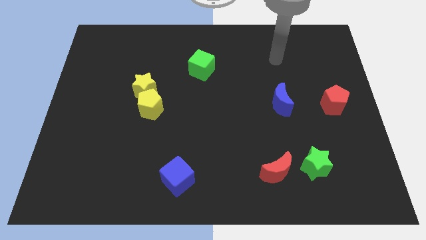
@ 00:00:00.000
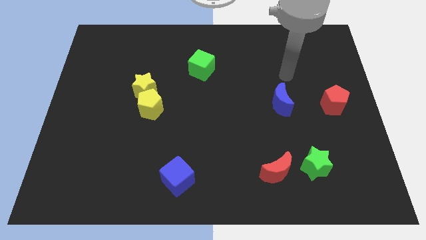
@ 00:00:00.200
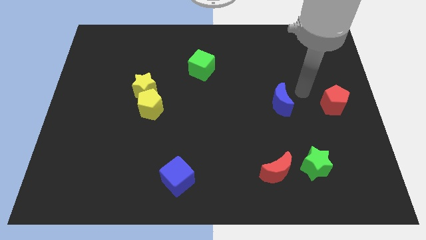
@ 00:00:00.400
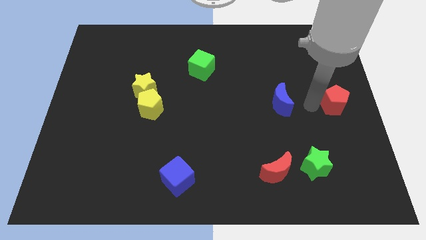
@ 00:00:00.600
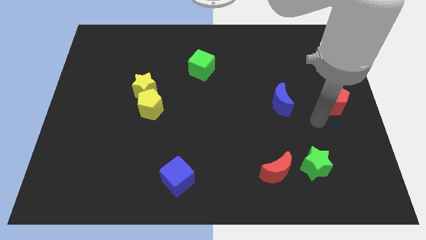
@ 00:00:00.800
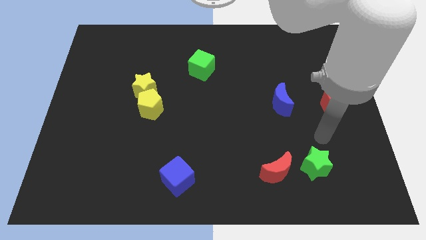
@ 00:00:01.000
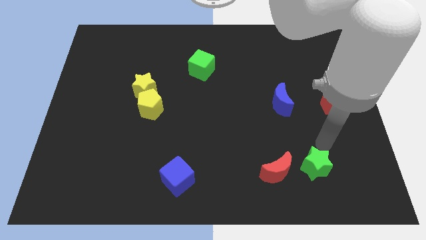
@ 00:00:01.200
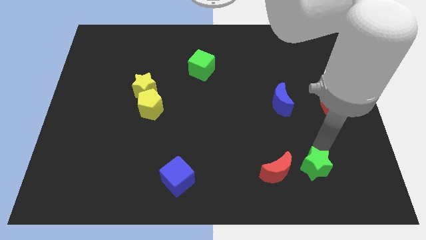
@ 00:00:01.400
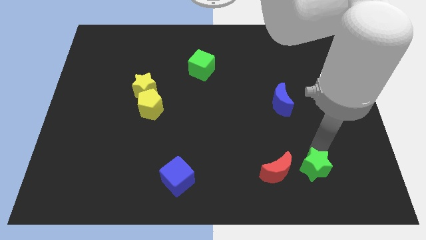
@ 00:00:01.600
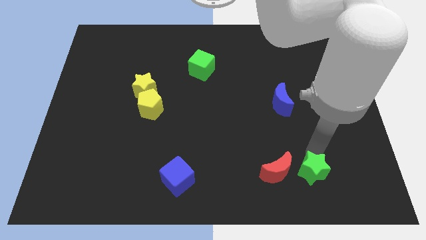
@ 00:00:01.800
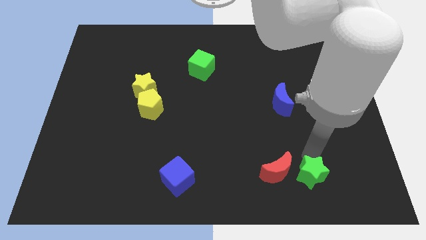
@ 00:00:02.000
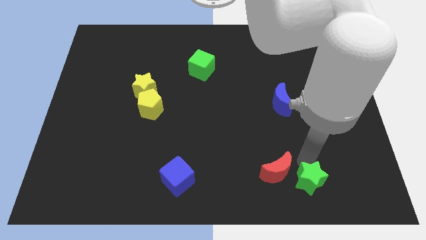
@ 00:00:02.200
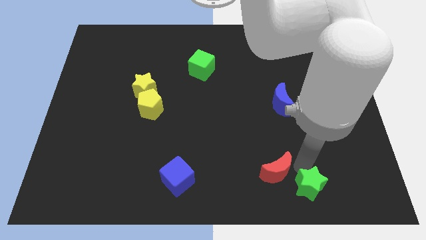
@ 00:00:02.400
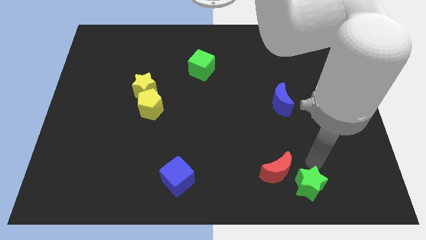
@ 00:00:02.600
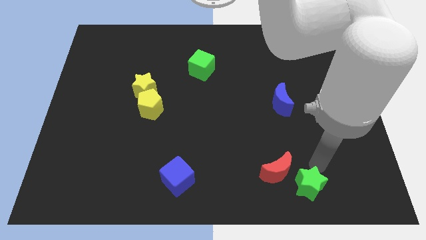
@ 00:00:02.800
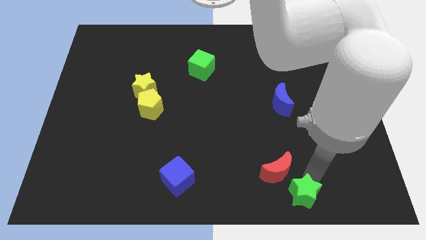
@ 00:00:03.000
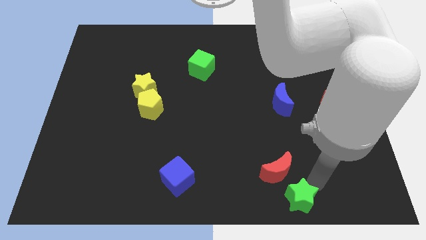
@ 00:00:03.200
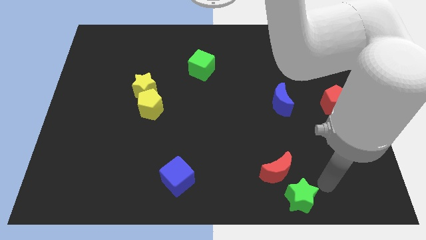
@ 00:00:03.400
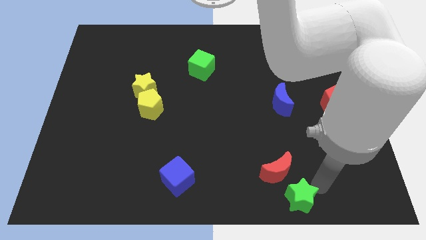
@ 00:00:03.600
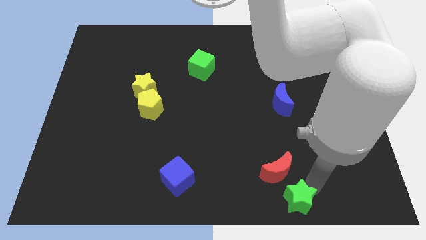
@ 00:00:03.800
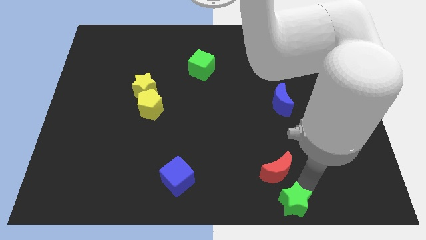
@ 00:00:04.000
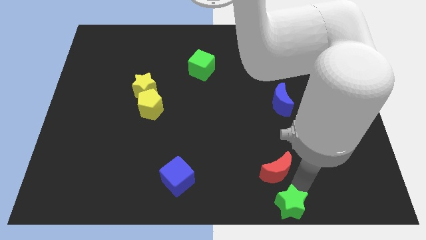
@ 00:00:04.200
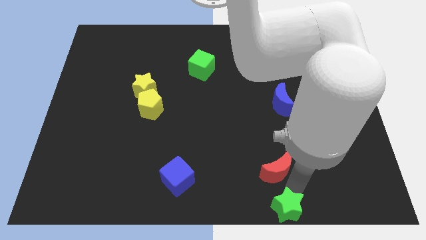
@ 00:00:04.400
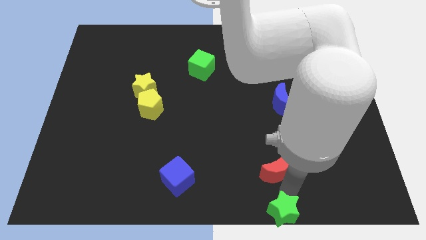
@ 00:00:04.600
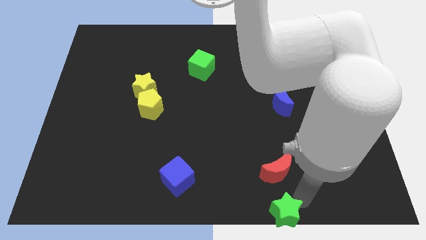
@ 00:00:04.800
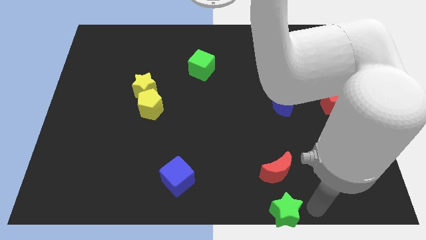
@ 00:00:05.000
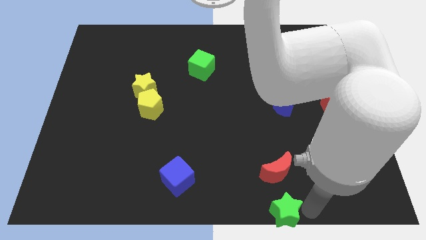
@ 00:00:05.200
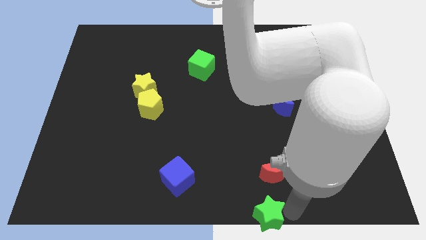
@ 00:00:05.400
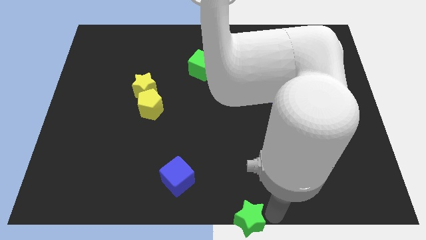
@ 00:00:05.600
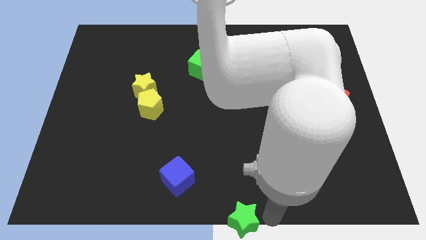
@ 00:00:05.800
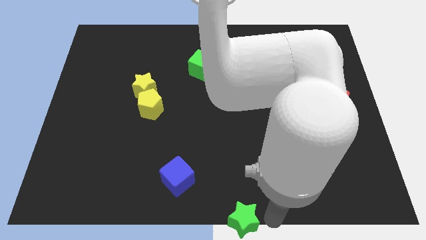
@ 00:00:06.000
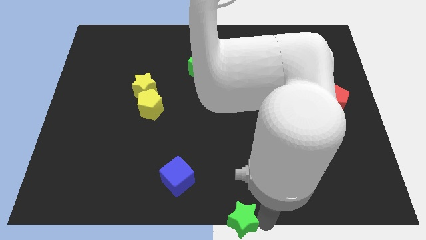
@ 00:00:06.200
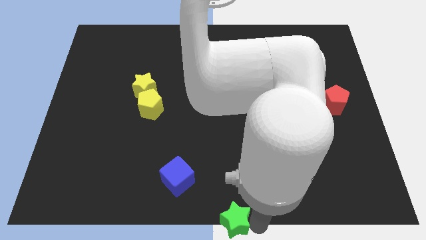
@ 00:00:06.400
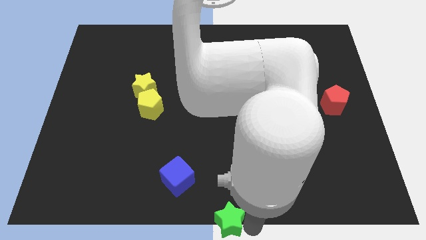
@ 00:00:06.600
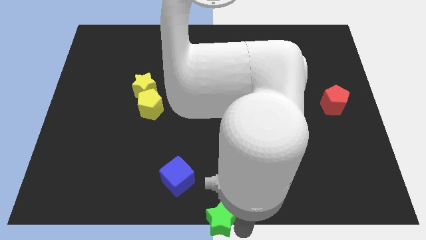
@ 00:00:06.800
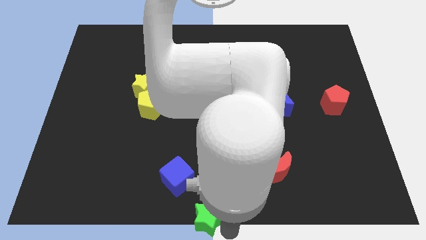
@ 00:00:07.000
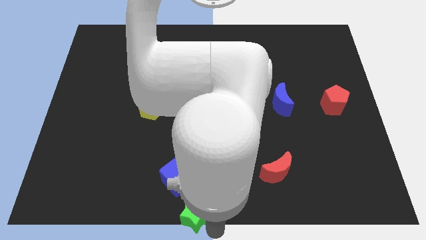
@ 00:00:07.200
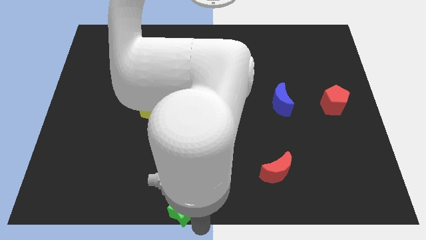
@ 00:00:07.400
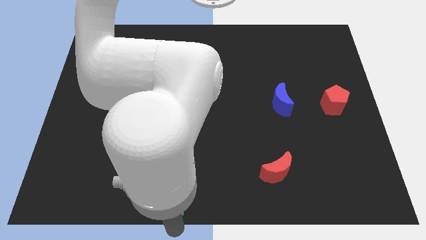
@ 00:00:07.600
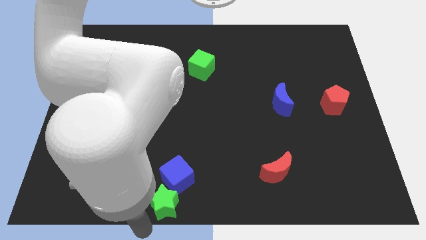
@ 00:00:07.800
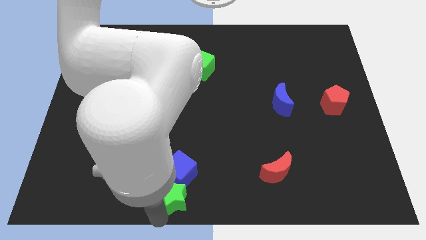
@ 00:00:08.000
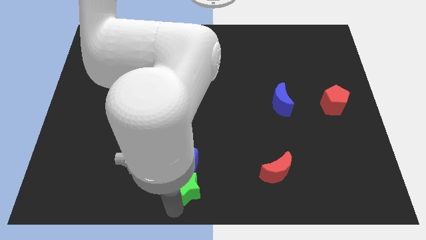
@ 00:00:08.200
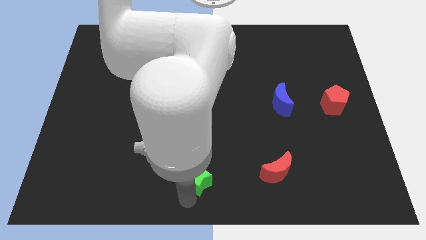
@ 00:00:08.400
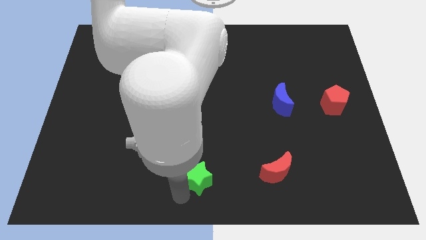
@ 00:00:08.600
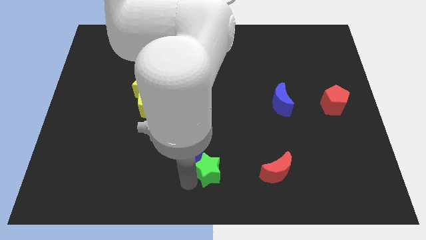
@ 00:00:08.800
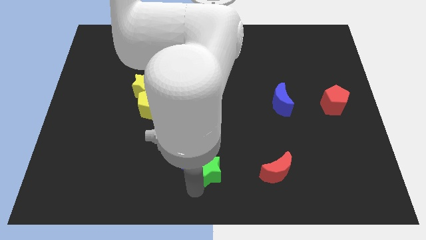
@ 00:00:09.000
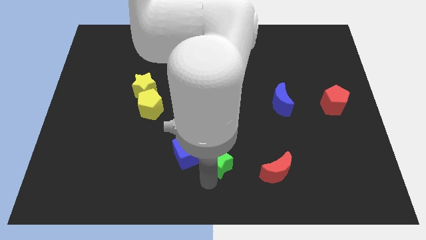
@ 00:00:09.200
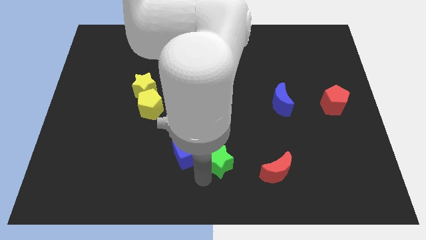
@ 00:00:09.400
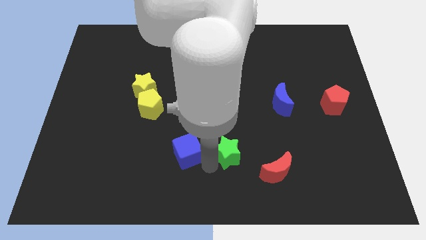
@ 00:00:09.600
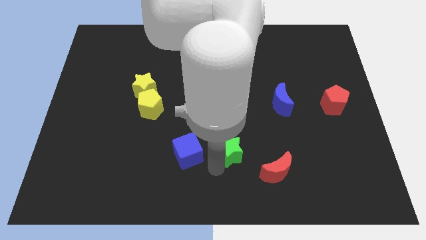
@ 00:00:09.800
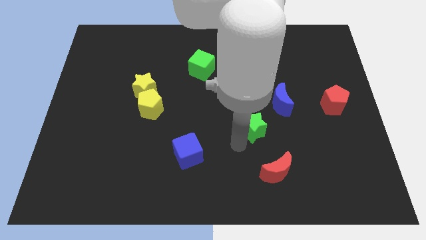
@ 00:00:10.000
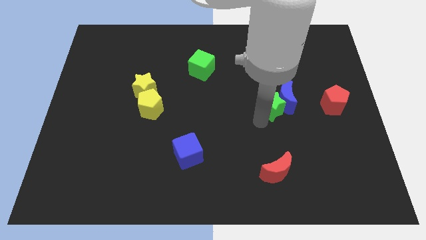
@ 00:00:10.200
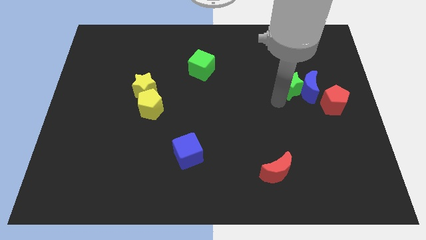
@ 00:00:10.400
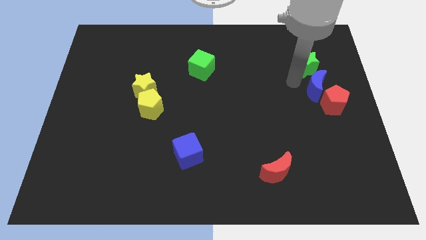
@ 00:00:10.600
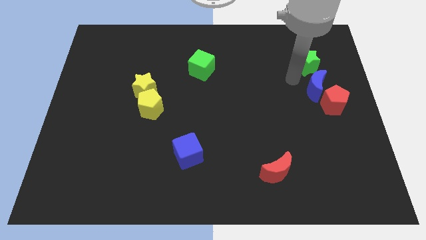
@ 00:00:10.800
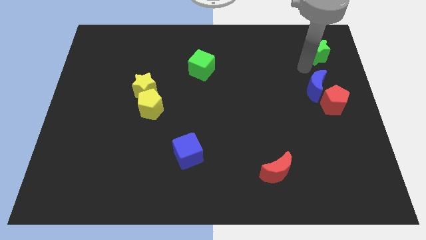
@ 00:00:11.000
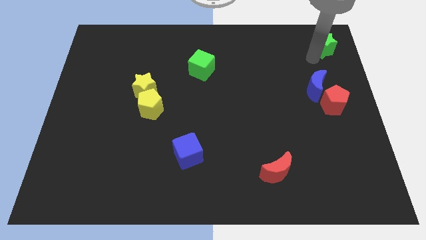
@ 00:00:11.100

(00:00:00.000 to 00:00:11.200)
move the green star to the upper right corner

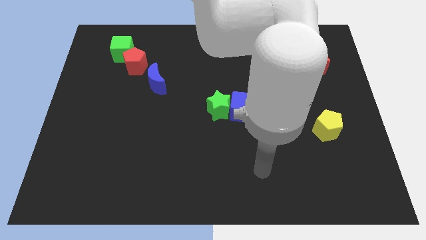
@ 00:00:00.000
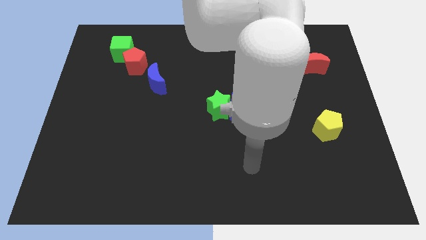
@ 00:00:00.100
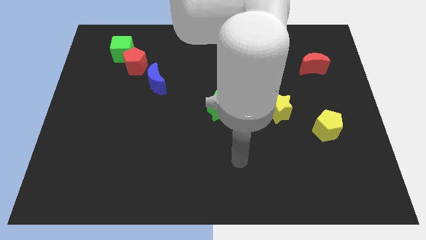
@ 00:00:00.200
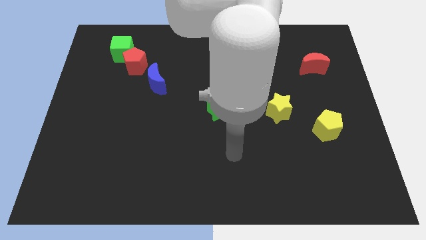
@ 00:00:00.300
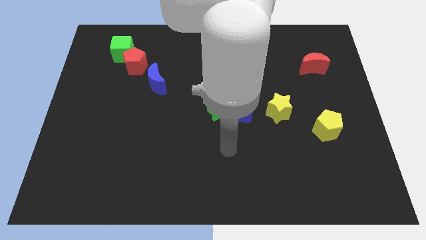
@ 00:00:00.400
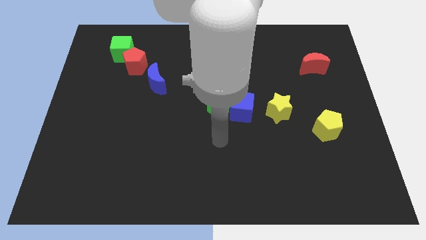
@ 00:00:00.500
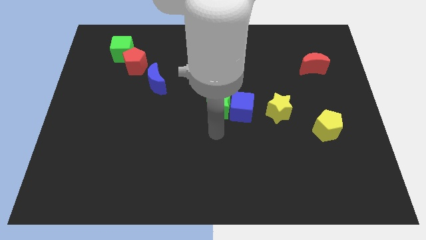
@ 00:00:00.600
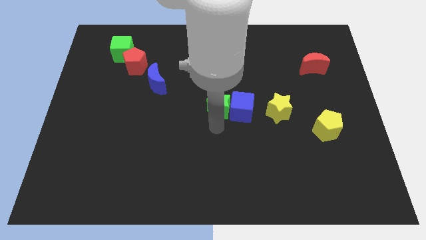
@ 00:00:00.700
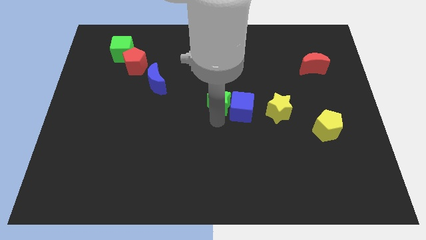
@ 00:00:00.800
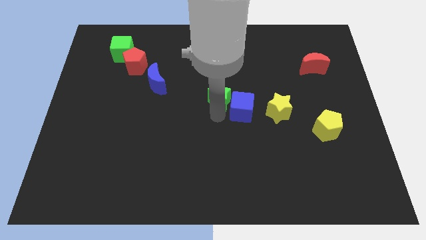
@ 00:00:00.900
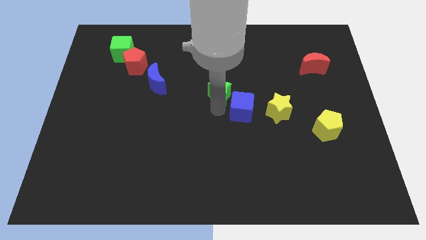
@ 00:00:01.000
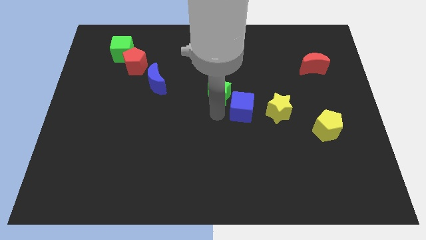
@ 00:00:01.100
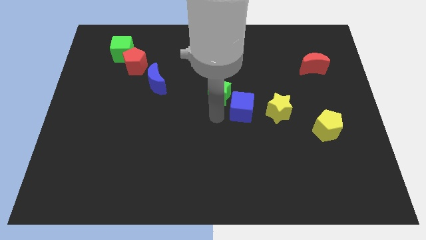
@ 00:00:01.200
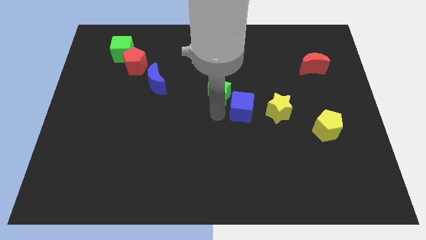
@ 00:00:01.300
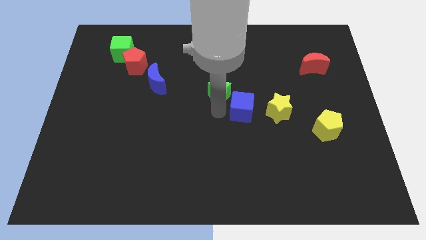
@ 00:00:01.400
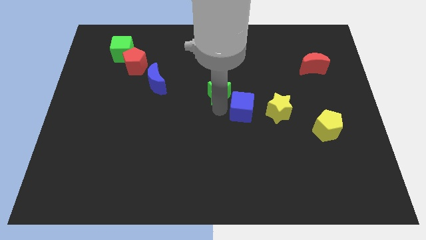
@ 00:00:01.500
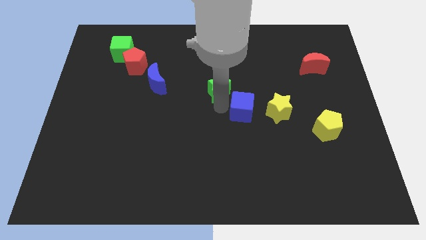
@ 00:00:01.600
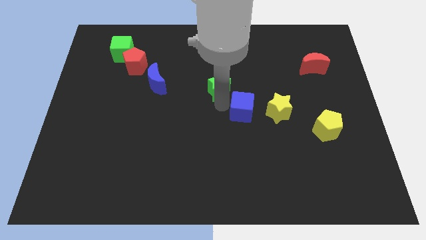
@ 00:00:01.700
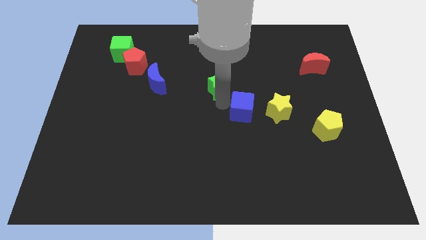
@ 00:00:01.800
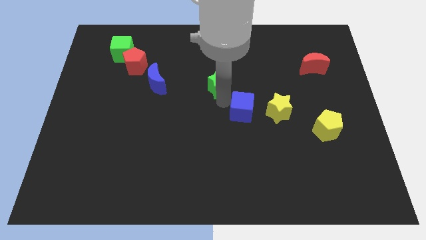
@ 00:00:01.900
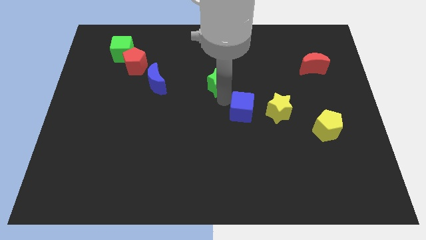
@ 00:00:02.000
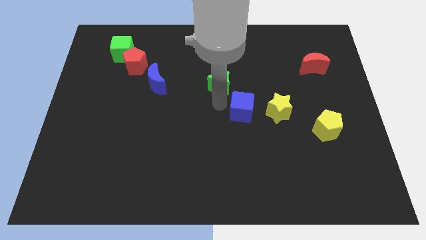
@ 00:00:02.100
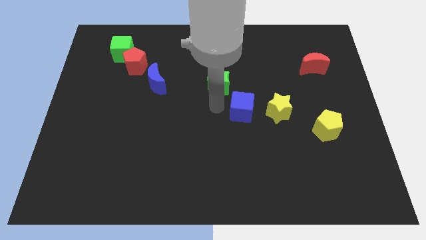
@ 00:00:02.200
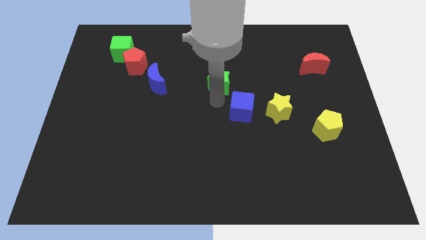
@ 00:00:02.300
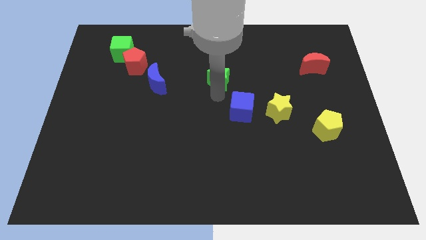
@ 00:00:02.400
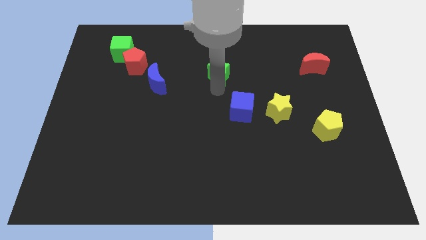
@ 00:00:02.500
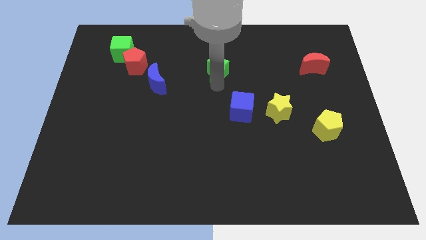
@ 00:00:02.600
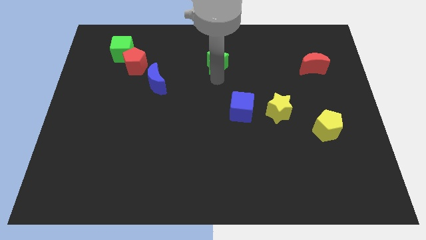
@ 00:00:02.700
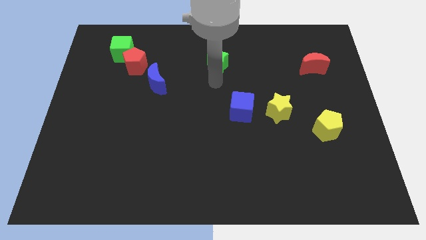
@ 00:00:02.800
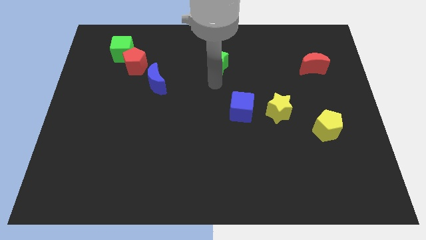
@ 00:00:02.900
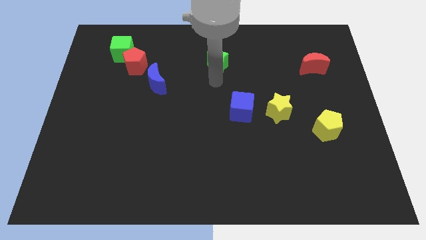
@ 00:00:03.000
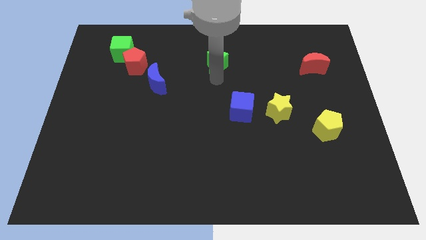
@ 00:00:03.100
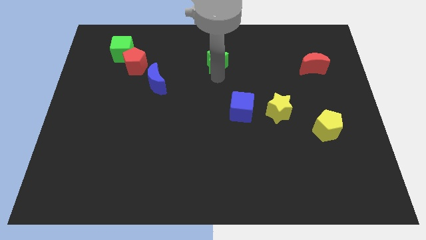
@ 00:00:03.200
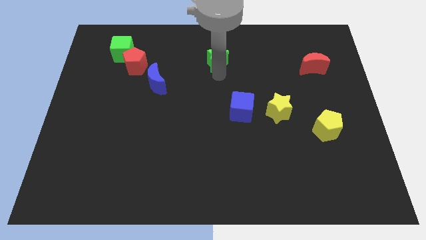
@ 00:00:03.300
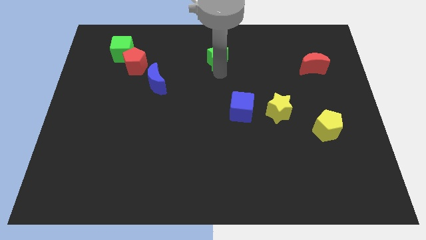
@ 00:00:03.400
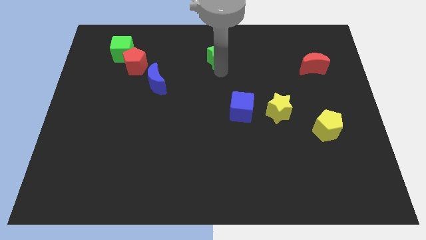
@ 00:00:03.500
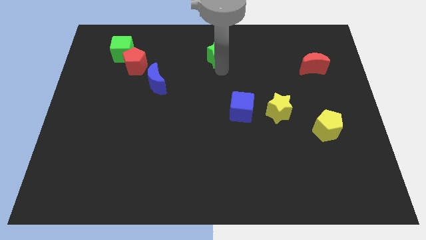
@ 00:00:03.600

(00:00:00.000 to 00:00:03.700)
slide the green star to the top side
